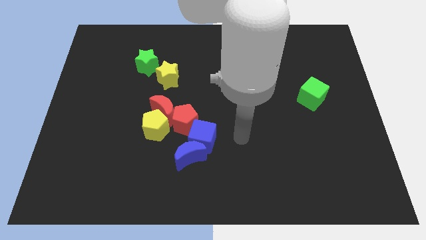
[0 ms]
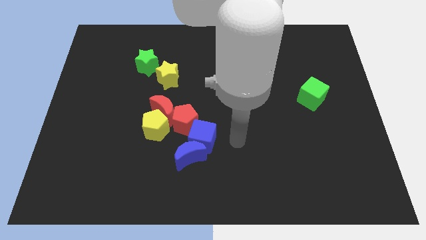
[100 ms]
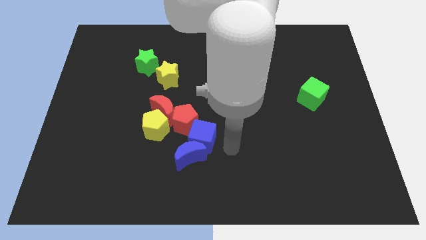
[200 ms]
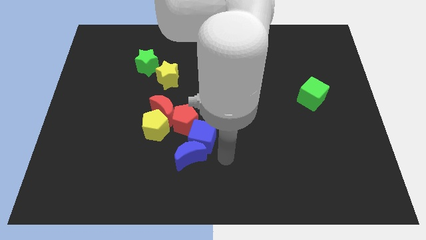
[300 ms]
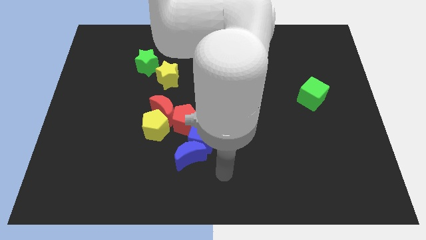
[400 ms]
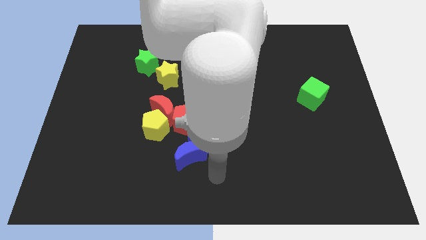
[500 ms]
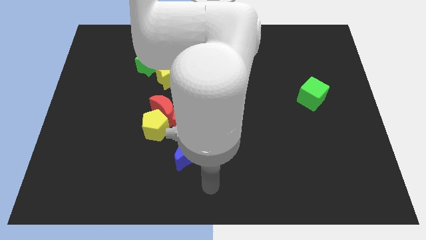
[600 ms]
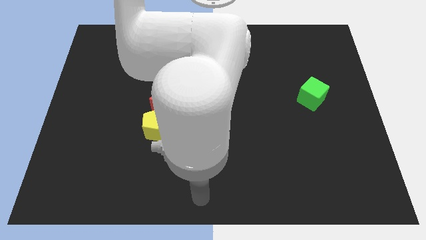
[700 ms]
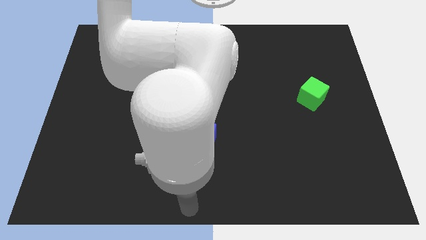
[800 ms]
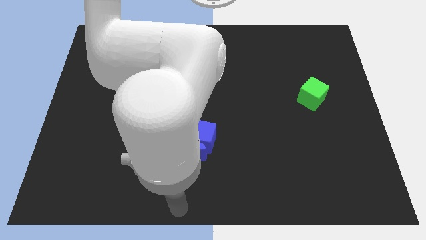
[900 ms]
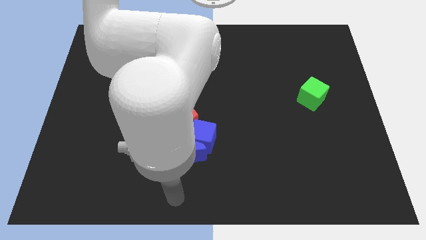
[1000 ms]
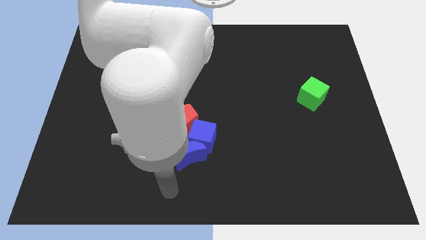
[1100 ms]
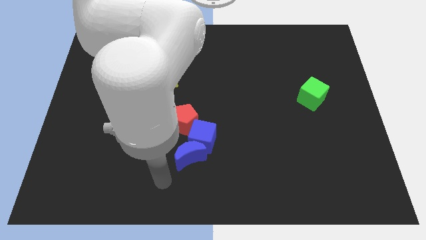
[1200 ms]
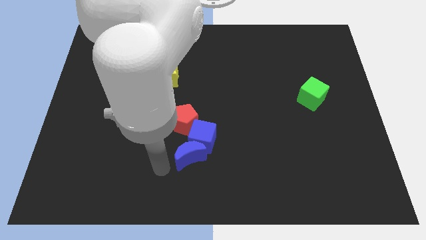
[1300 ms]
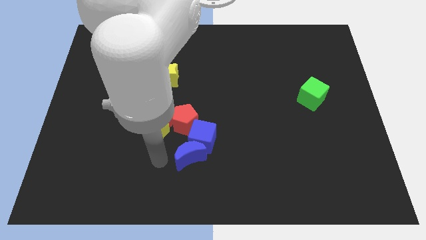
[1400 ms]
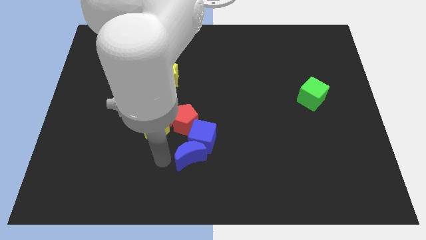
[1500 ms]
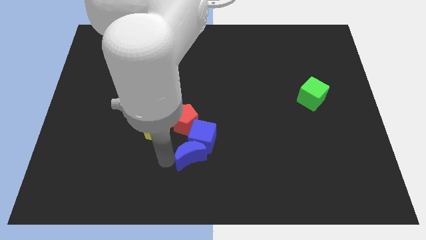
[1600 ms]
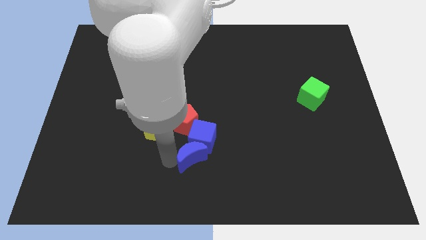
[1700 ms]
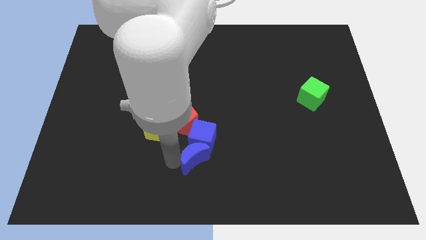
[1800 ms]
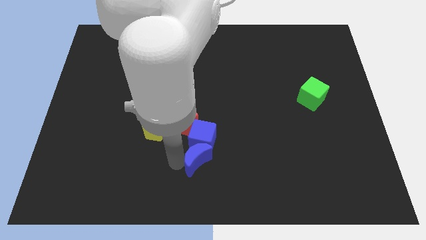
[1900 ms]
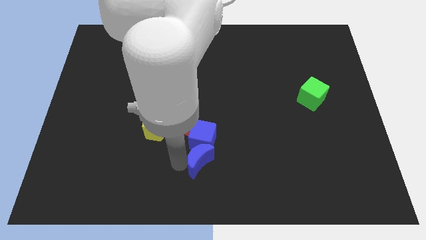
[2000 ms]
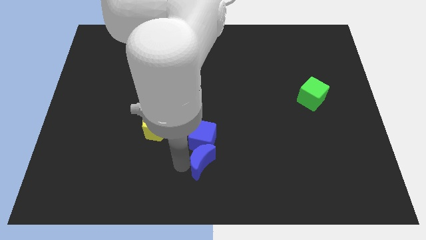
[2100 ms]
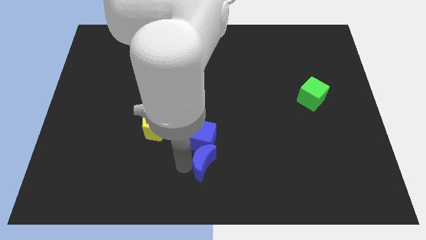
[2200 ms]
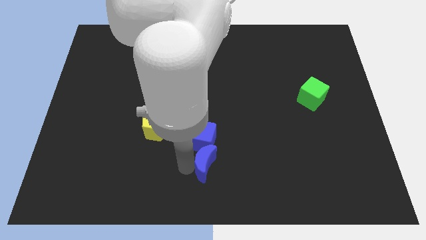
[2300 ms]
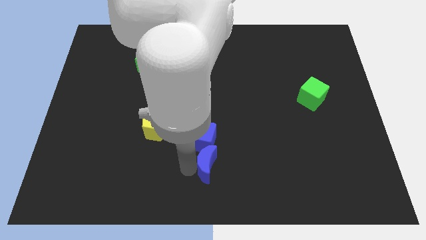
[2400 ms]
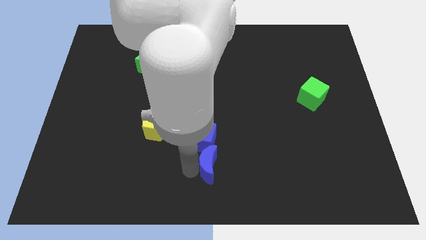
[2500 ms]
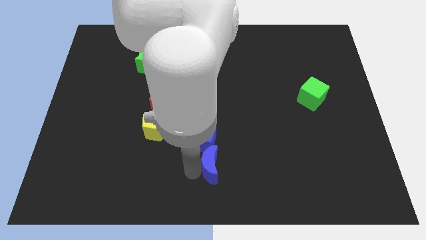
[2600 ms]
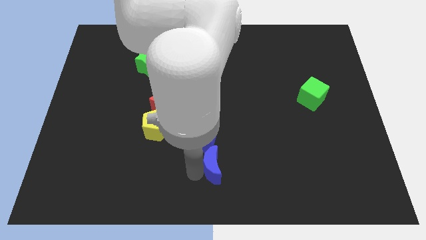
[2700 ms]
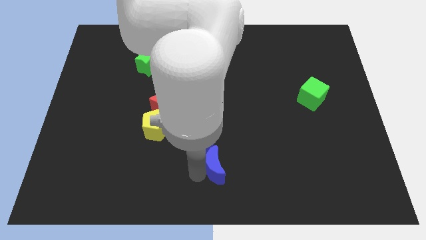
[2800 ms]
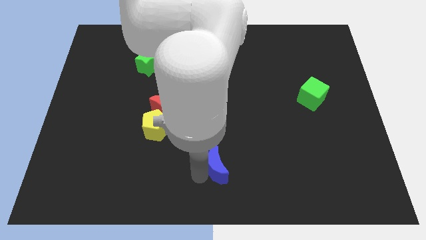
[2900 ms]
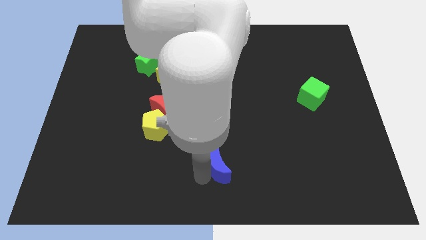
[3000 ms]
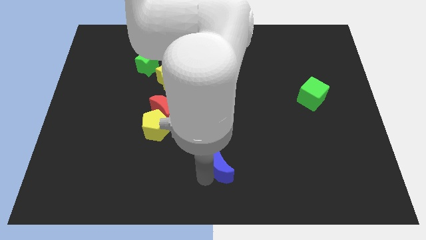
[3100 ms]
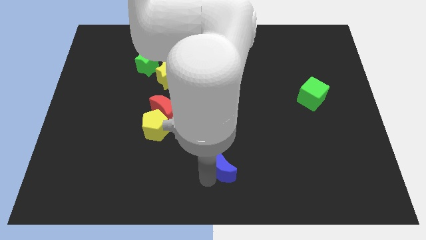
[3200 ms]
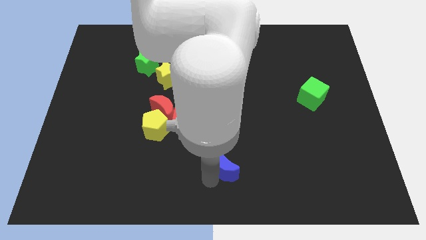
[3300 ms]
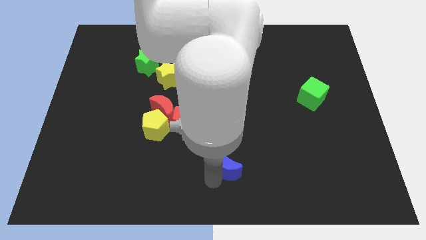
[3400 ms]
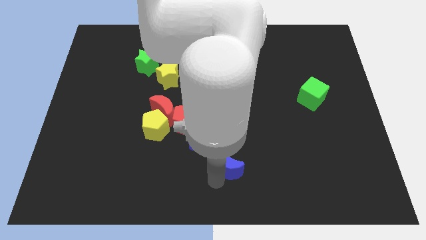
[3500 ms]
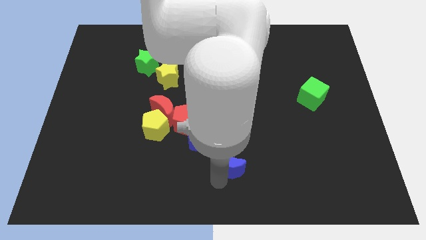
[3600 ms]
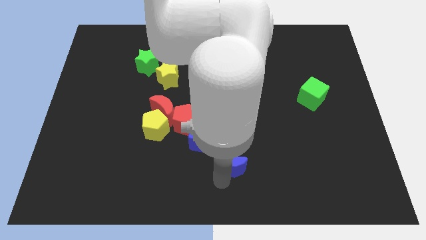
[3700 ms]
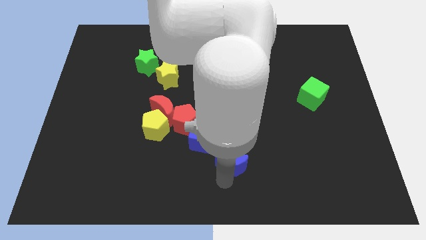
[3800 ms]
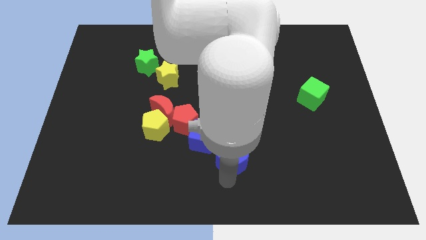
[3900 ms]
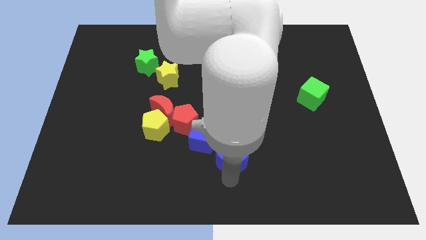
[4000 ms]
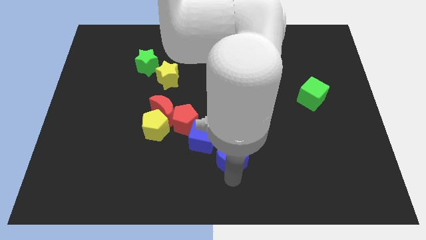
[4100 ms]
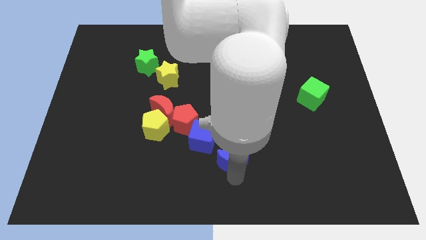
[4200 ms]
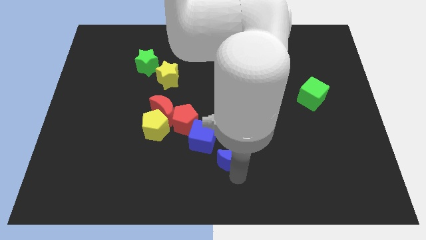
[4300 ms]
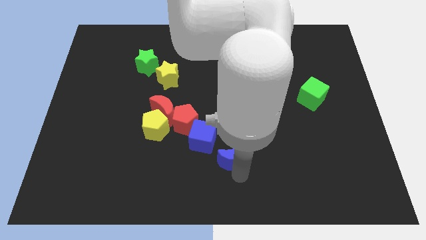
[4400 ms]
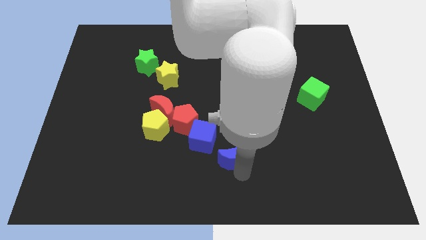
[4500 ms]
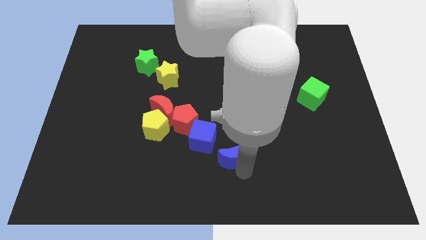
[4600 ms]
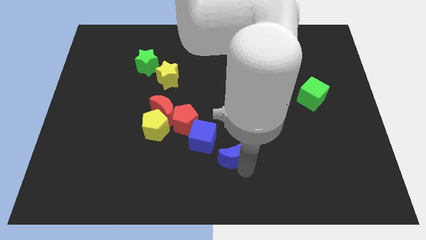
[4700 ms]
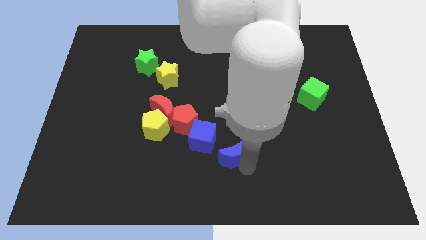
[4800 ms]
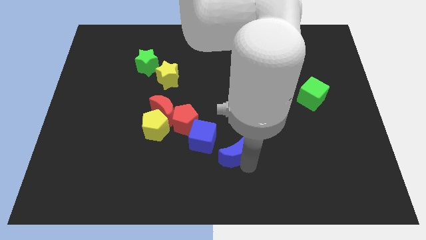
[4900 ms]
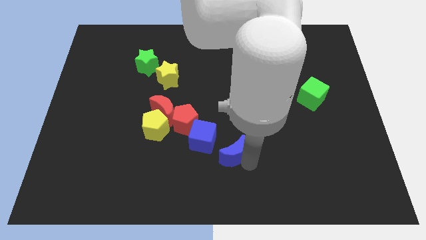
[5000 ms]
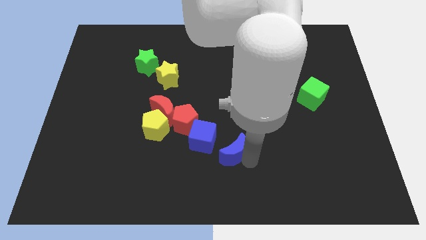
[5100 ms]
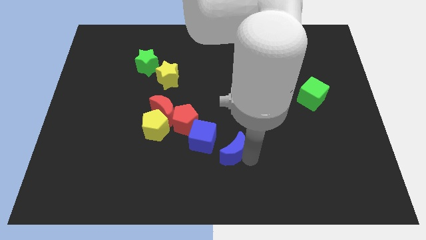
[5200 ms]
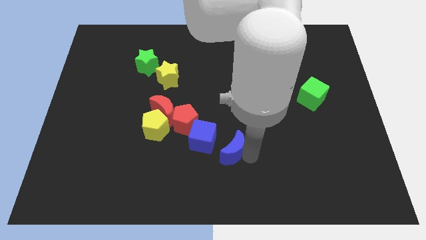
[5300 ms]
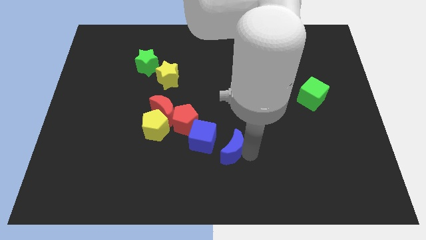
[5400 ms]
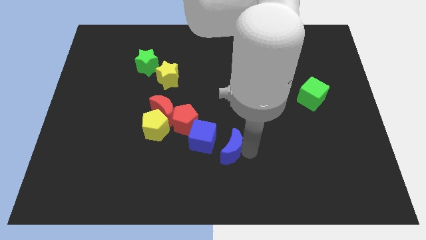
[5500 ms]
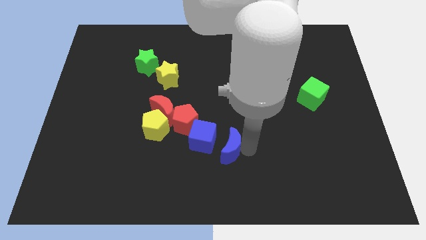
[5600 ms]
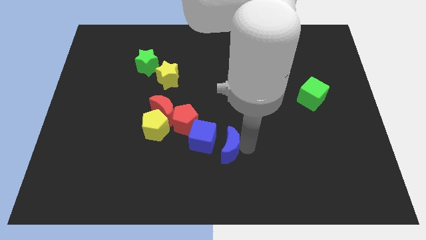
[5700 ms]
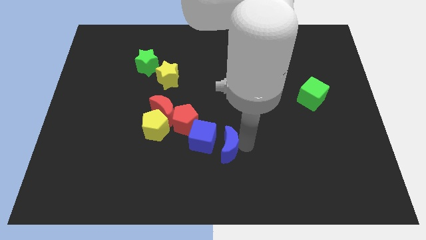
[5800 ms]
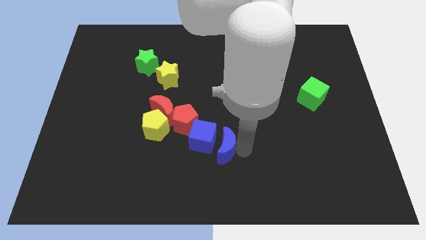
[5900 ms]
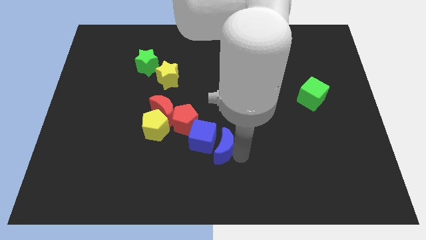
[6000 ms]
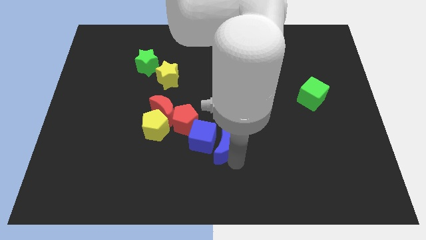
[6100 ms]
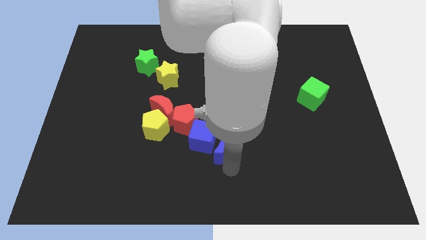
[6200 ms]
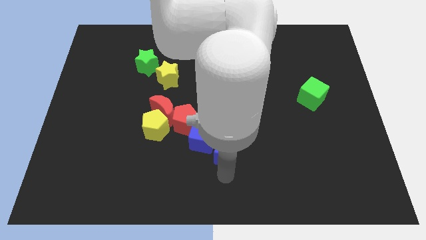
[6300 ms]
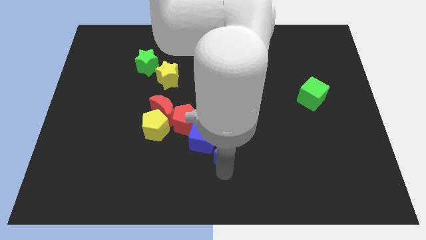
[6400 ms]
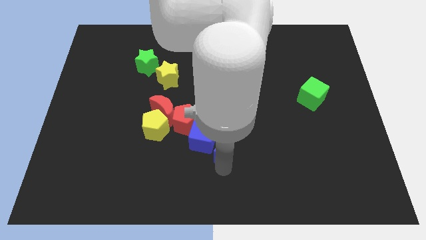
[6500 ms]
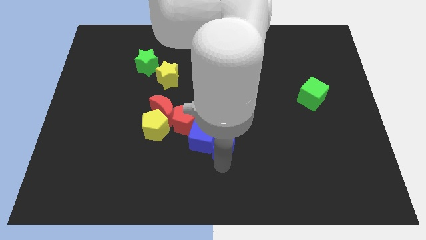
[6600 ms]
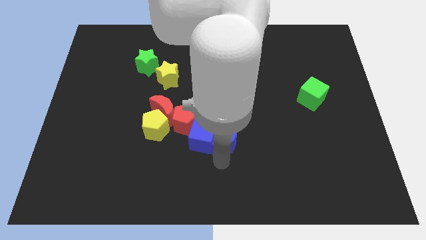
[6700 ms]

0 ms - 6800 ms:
push the blue moon to the top right side of the blue cube
